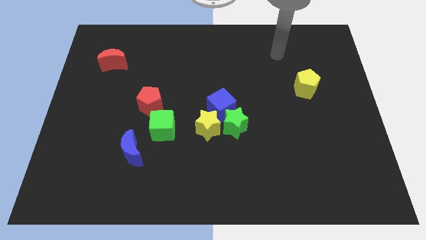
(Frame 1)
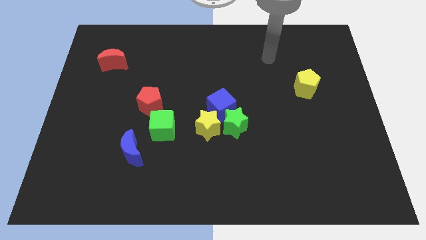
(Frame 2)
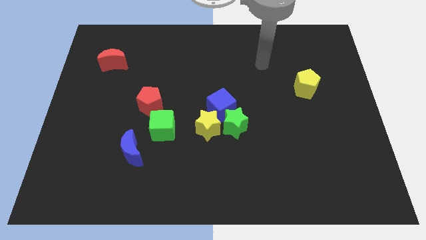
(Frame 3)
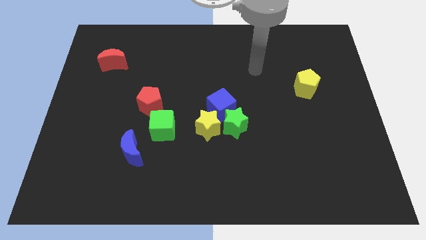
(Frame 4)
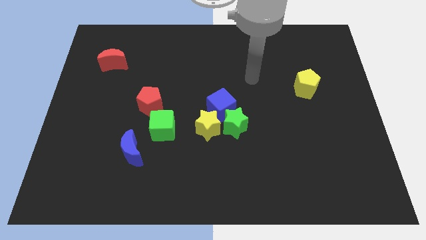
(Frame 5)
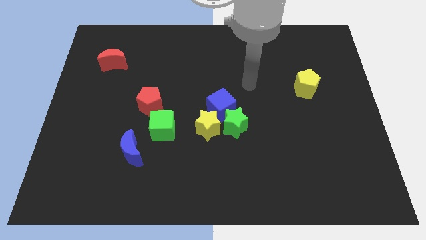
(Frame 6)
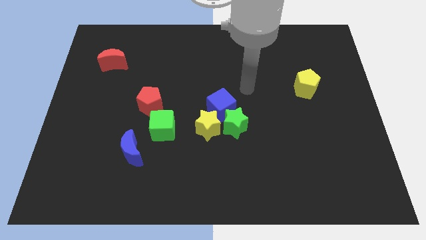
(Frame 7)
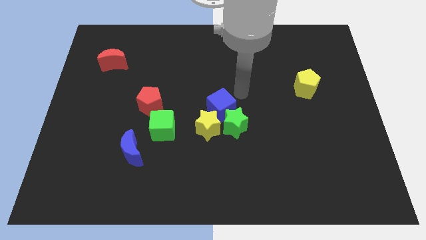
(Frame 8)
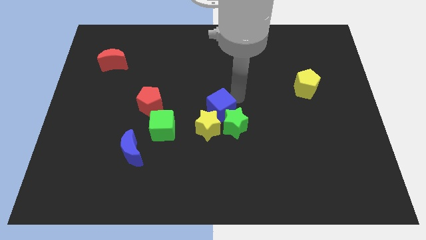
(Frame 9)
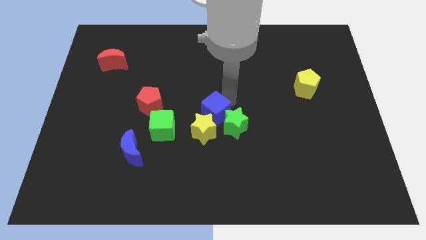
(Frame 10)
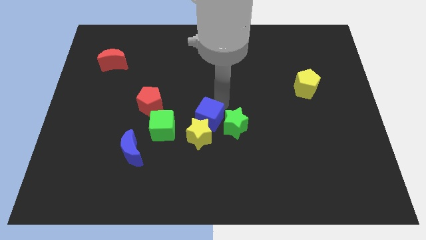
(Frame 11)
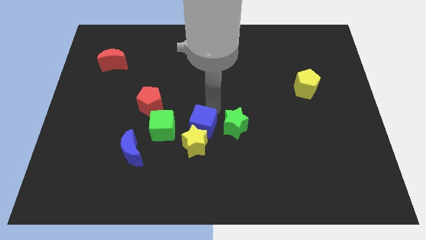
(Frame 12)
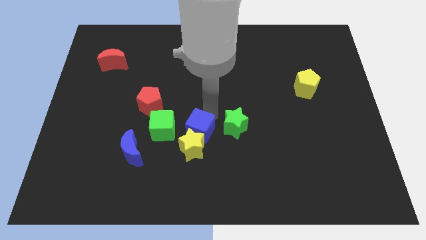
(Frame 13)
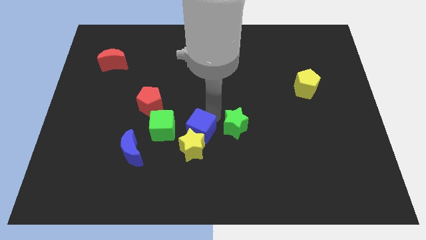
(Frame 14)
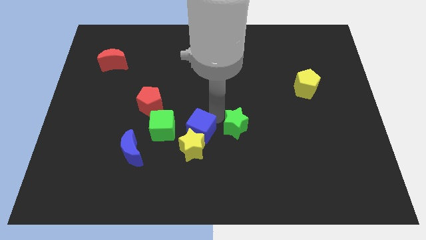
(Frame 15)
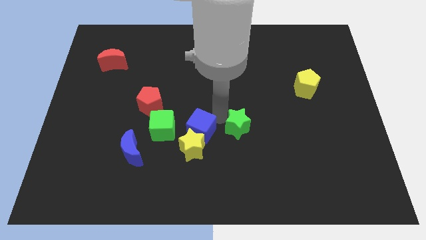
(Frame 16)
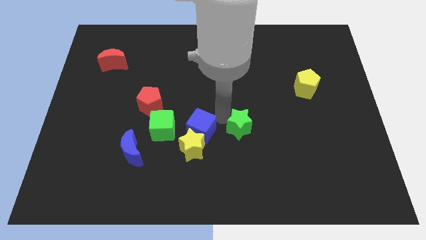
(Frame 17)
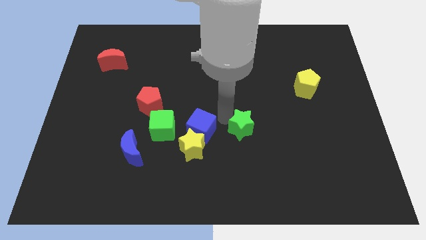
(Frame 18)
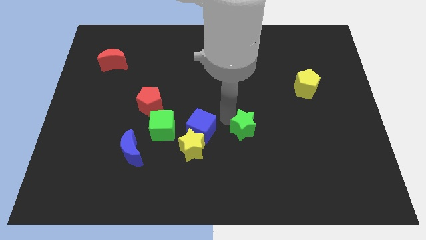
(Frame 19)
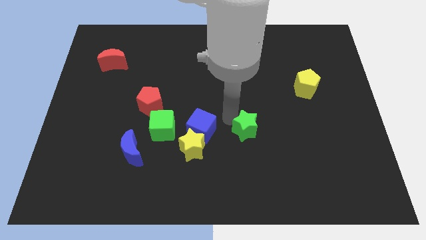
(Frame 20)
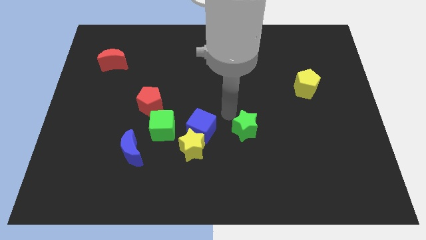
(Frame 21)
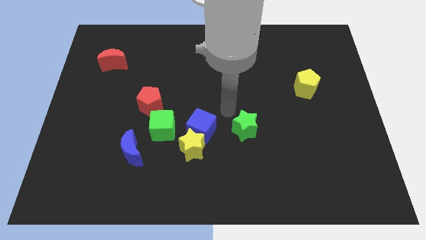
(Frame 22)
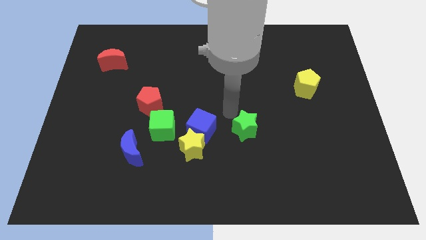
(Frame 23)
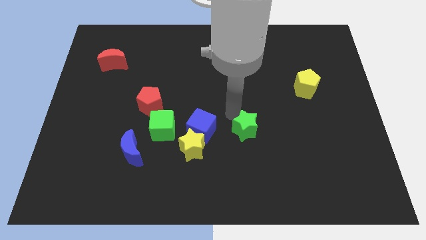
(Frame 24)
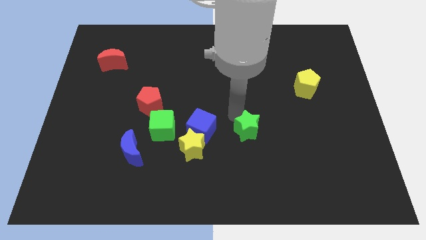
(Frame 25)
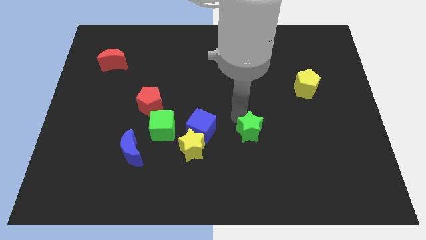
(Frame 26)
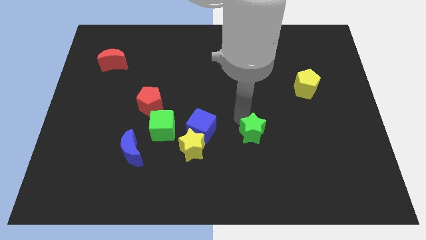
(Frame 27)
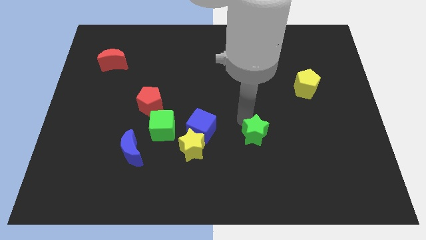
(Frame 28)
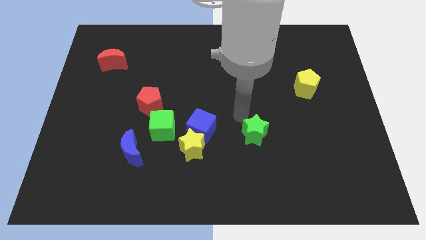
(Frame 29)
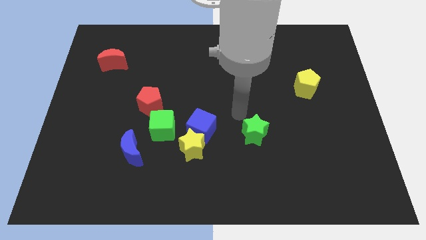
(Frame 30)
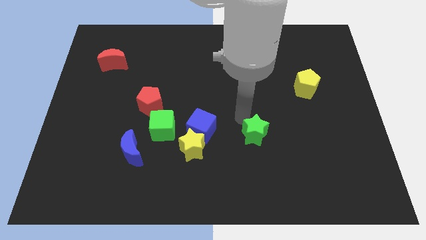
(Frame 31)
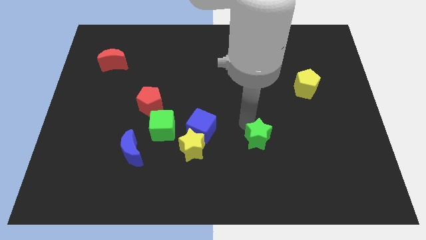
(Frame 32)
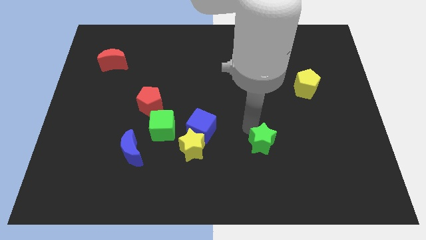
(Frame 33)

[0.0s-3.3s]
move the green star a little bit downwards and then to the right

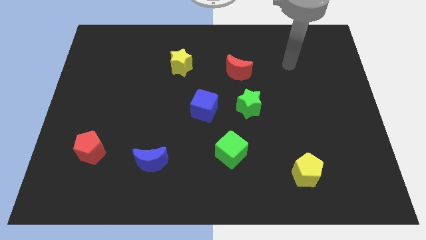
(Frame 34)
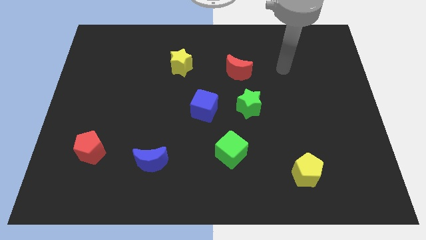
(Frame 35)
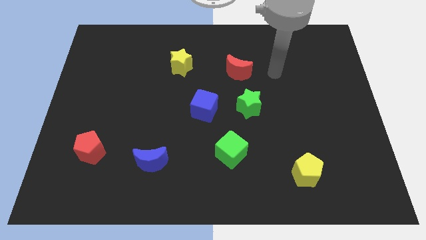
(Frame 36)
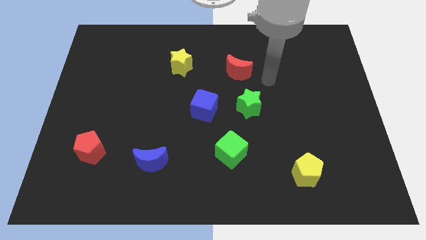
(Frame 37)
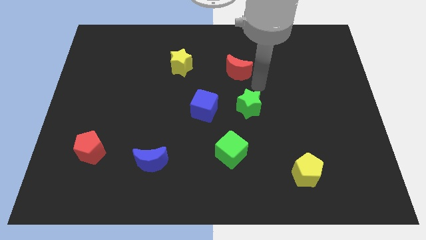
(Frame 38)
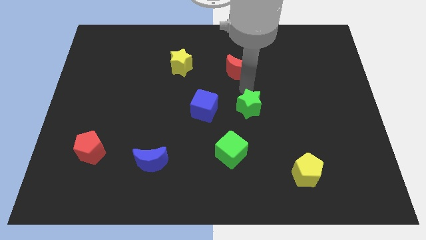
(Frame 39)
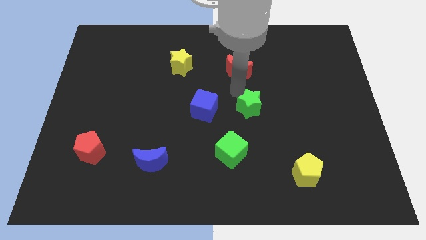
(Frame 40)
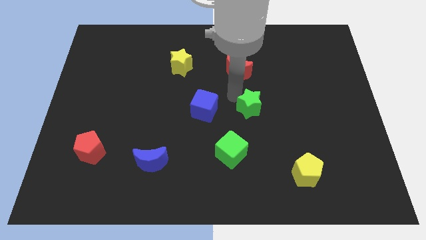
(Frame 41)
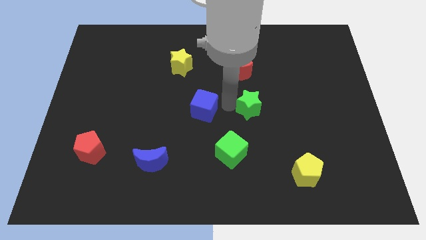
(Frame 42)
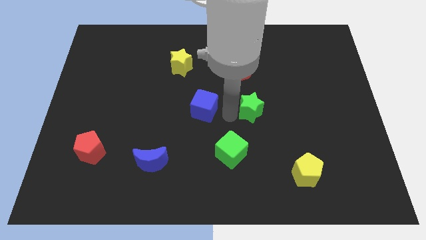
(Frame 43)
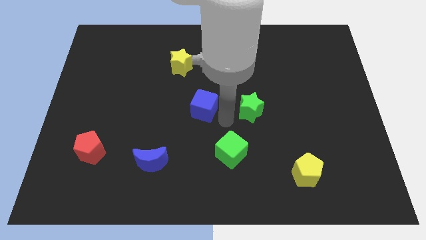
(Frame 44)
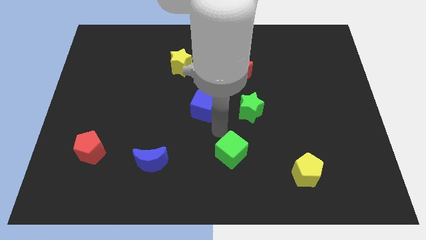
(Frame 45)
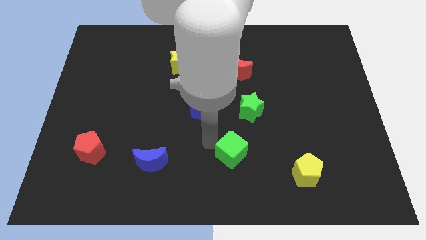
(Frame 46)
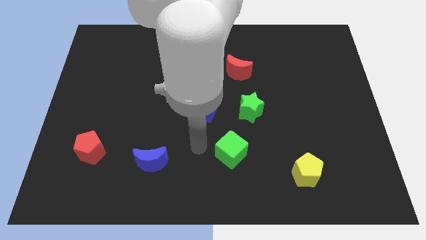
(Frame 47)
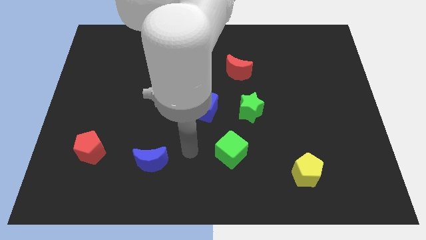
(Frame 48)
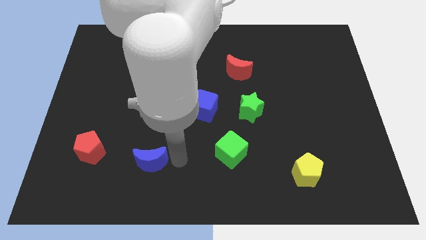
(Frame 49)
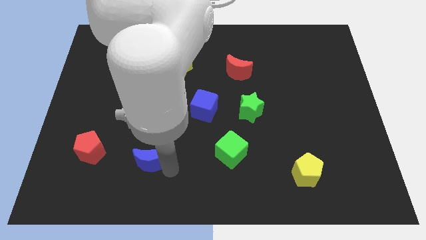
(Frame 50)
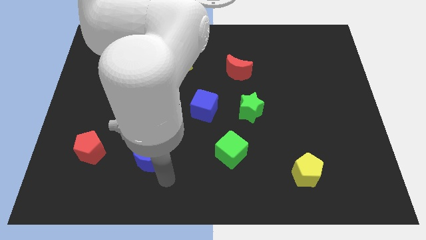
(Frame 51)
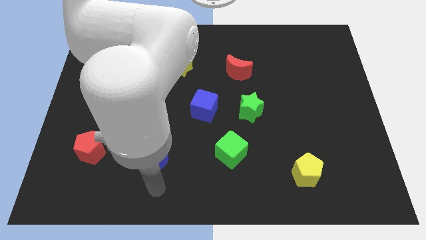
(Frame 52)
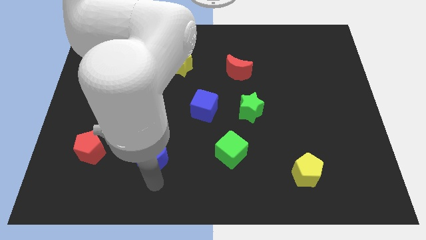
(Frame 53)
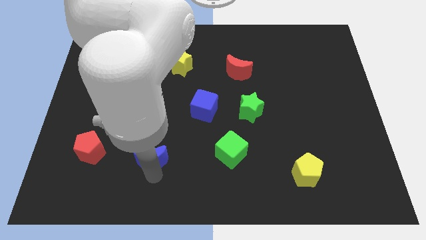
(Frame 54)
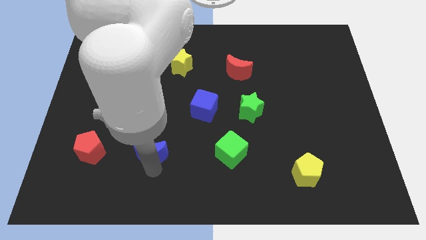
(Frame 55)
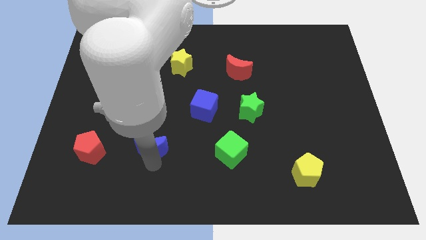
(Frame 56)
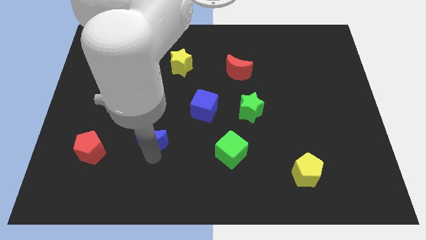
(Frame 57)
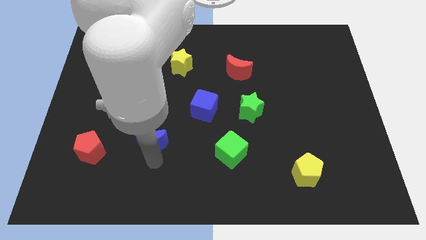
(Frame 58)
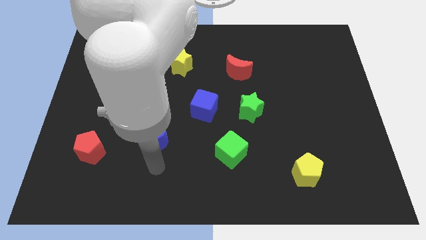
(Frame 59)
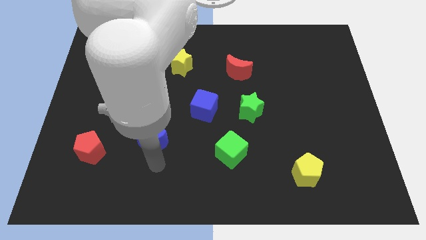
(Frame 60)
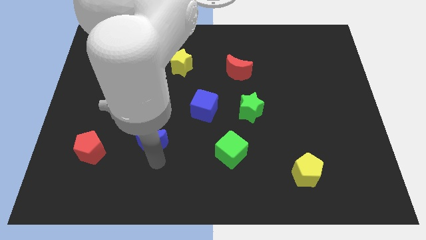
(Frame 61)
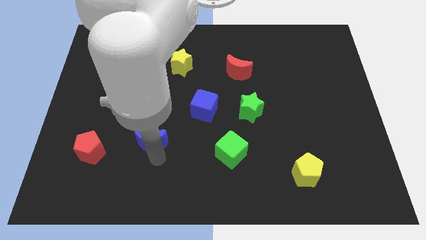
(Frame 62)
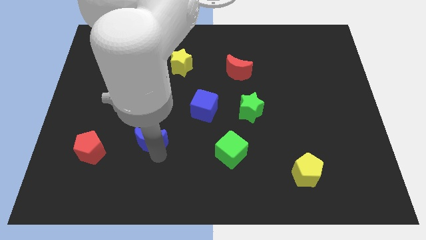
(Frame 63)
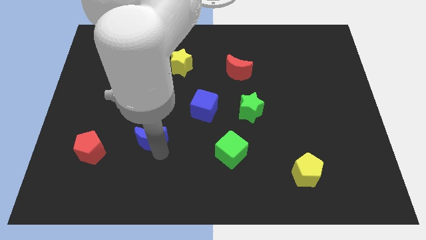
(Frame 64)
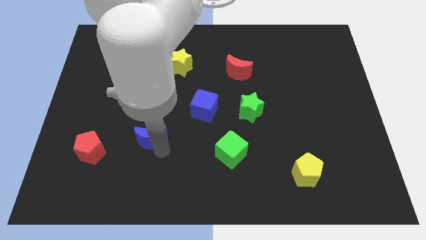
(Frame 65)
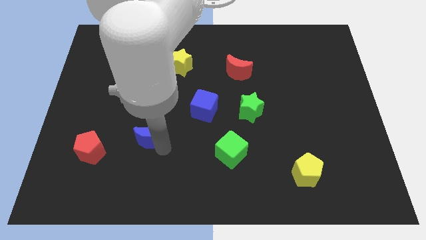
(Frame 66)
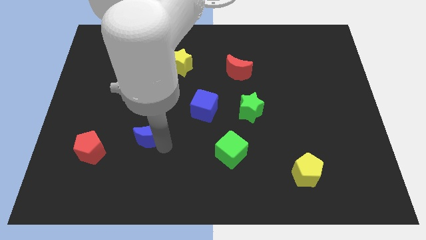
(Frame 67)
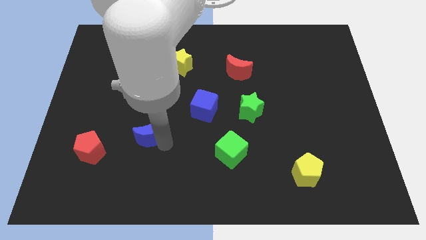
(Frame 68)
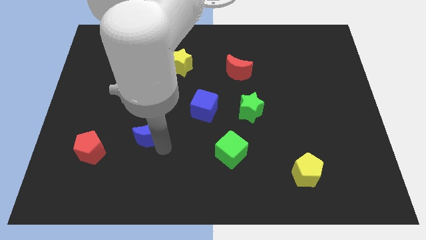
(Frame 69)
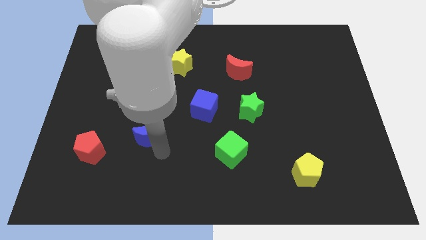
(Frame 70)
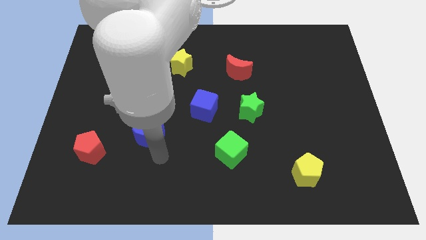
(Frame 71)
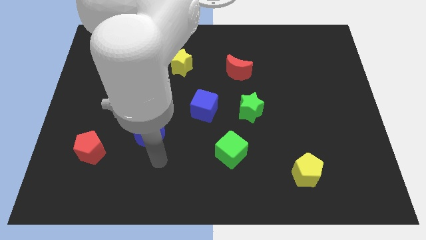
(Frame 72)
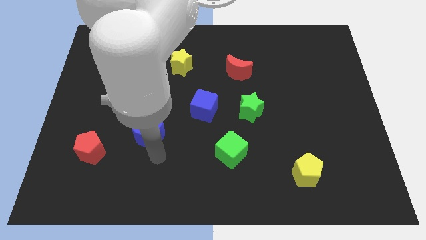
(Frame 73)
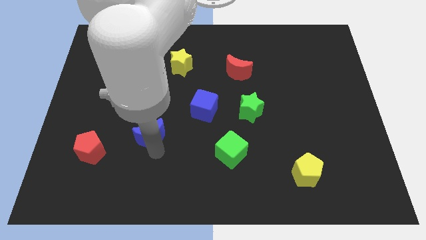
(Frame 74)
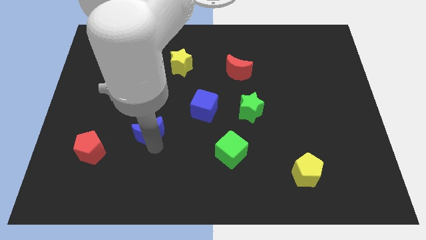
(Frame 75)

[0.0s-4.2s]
slightly slide the blue moon up

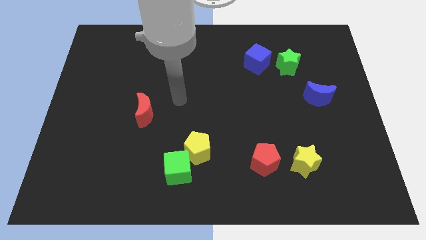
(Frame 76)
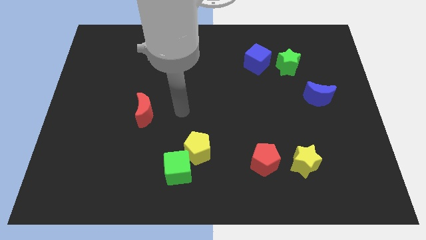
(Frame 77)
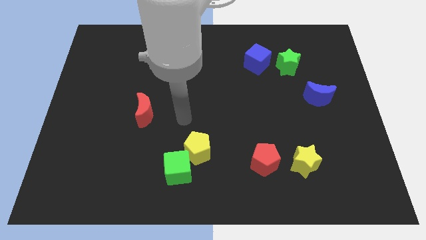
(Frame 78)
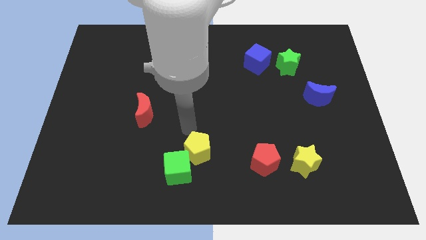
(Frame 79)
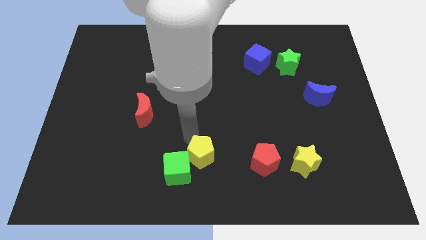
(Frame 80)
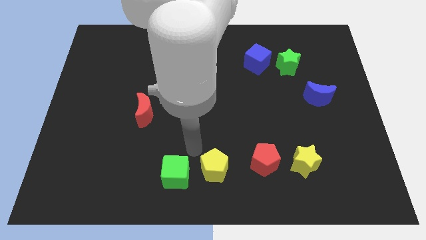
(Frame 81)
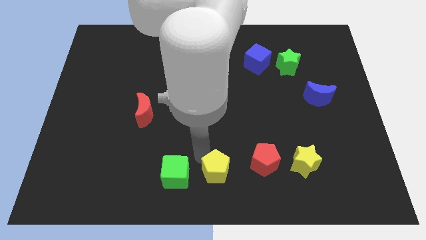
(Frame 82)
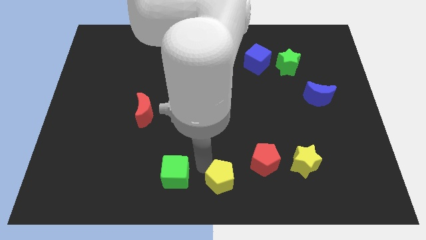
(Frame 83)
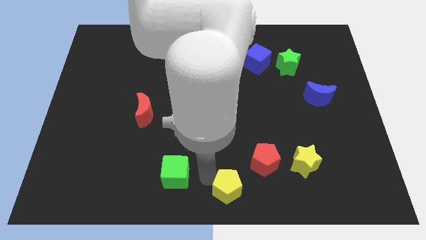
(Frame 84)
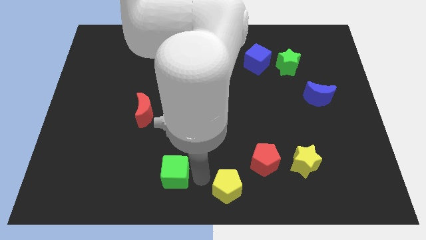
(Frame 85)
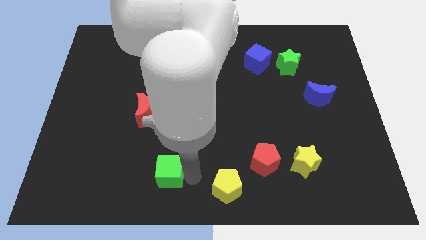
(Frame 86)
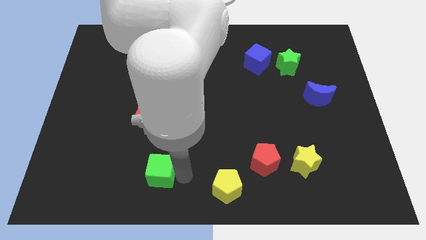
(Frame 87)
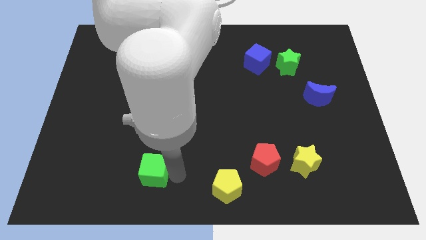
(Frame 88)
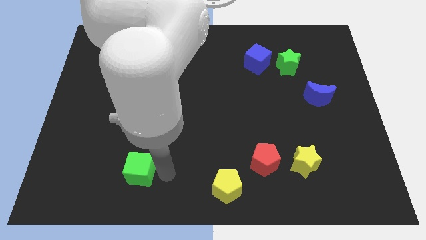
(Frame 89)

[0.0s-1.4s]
move the green cube left somewhat
